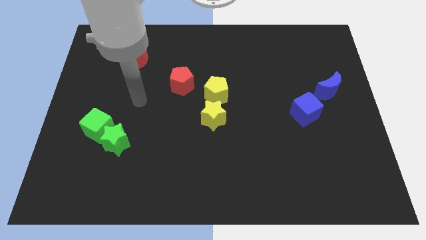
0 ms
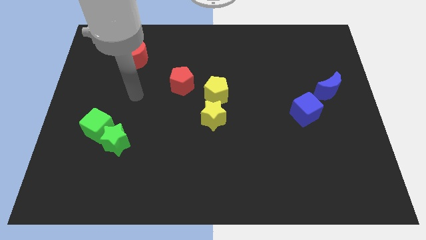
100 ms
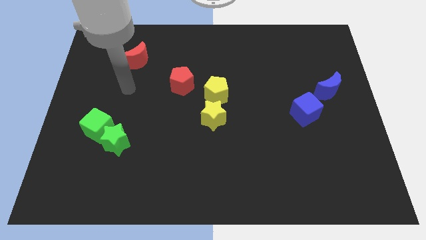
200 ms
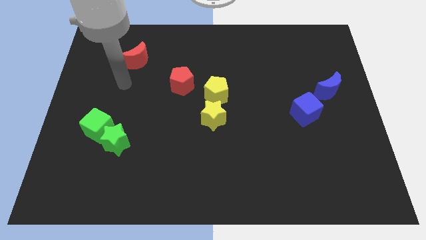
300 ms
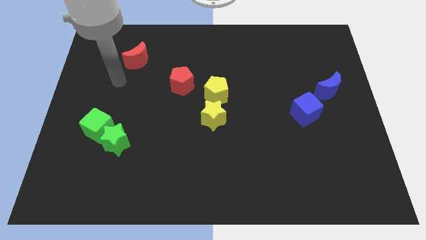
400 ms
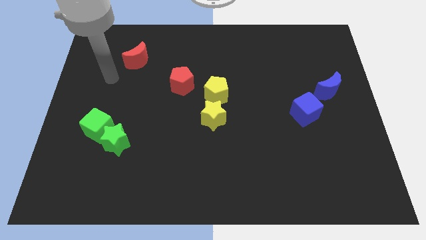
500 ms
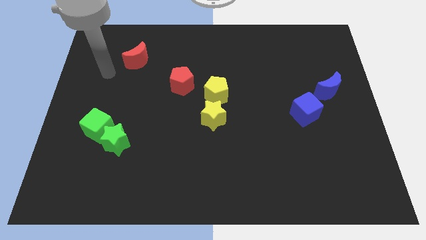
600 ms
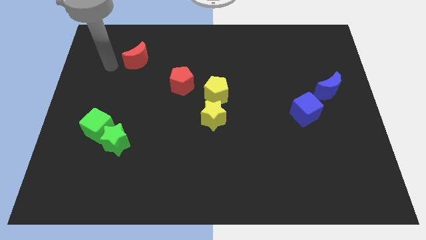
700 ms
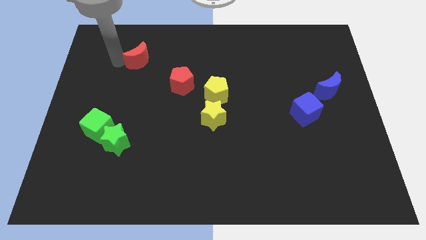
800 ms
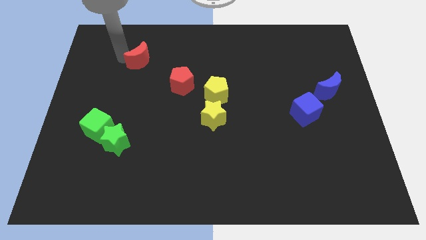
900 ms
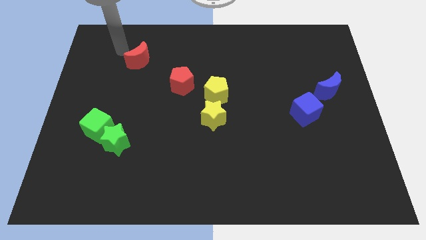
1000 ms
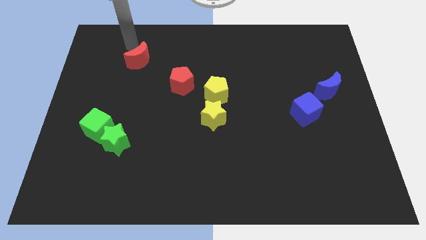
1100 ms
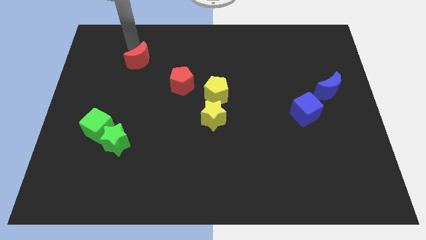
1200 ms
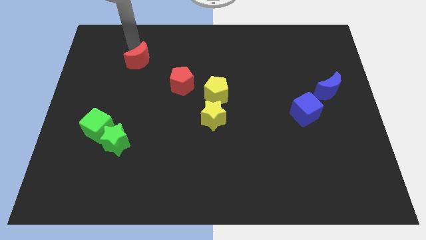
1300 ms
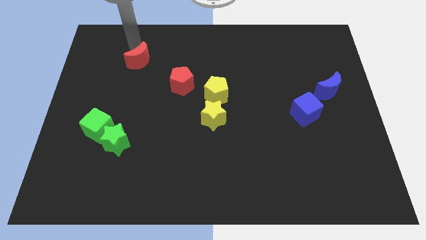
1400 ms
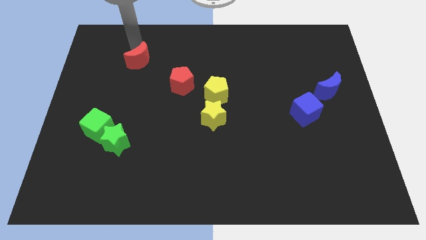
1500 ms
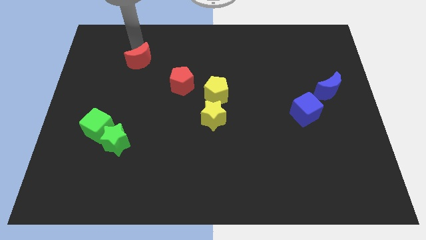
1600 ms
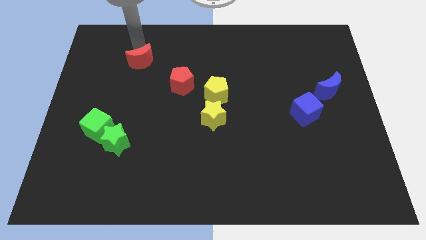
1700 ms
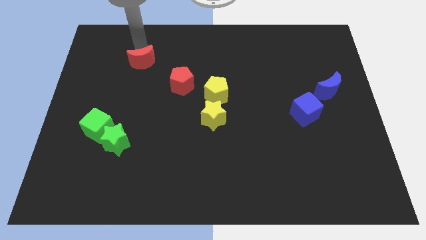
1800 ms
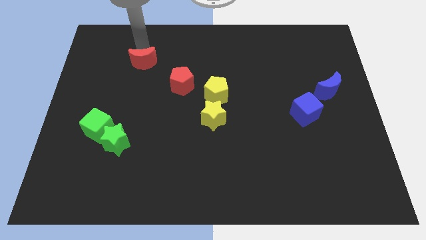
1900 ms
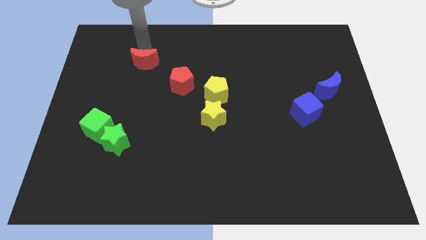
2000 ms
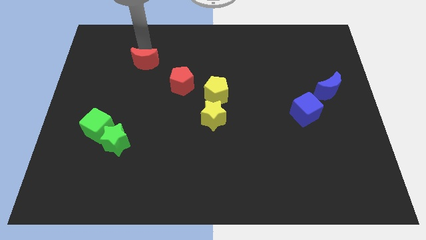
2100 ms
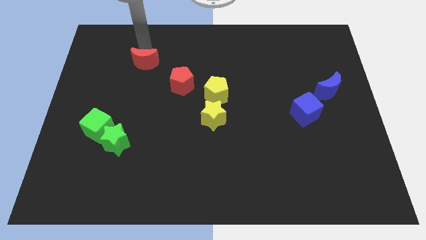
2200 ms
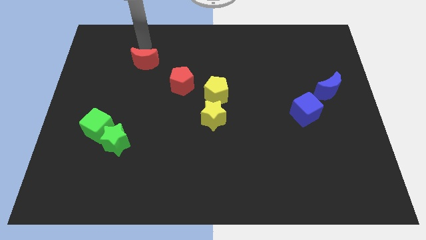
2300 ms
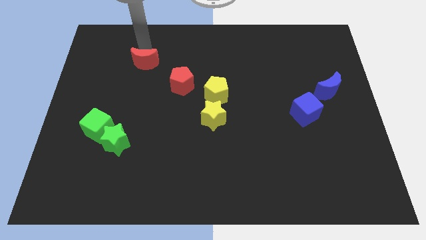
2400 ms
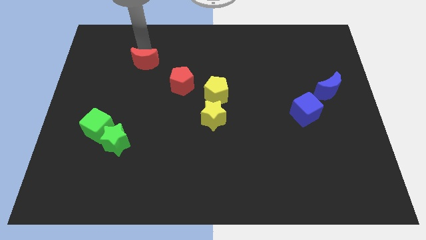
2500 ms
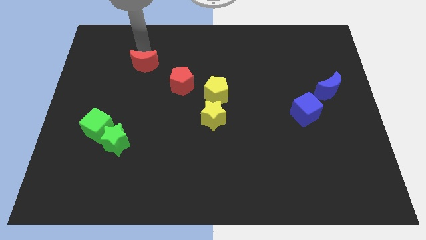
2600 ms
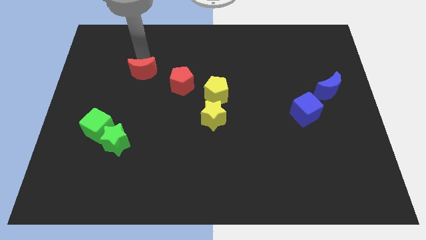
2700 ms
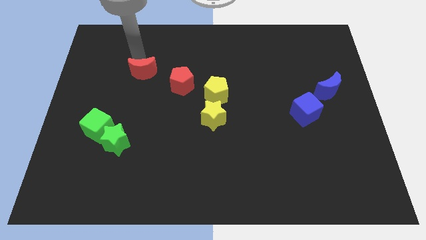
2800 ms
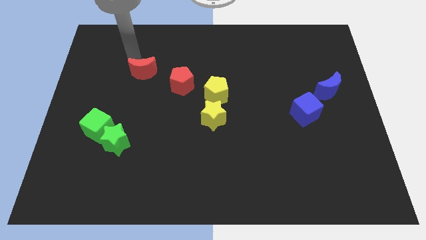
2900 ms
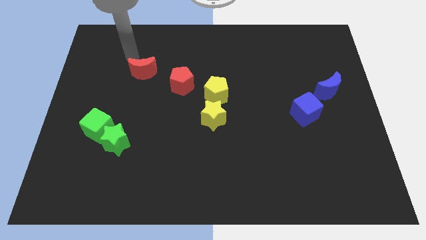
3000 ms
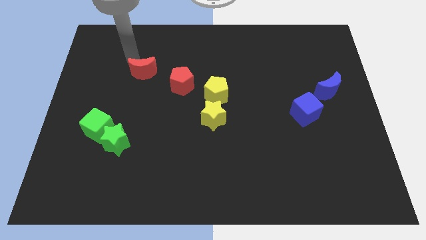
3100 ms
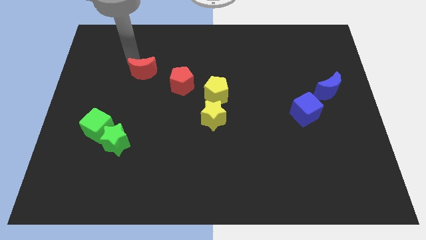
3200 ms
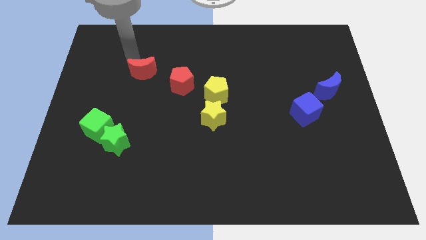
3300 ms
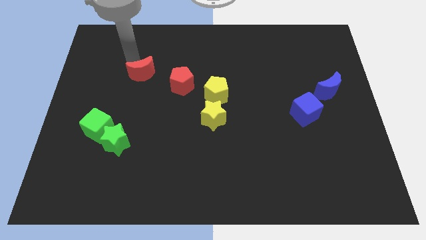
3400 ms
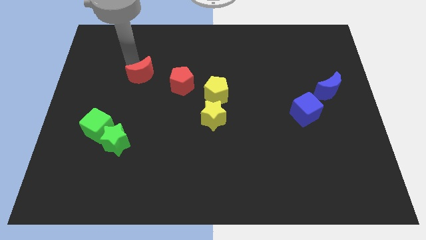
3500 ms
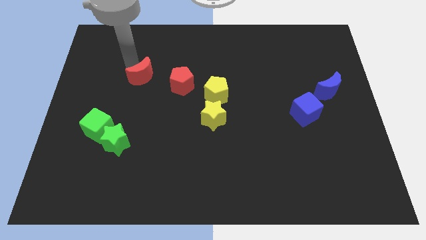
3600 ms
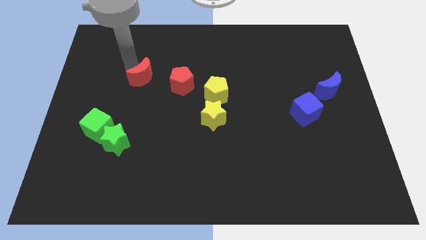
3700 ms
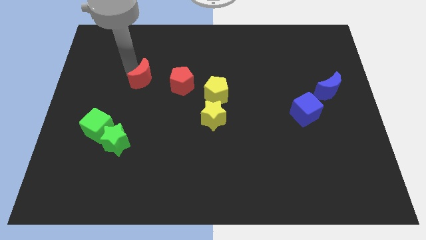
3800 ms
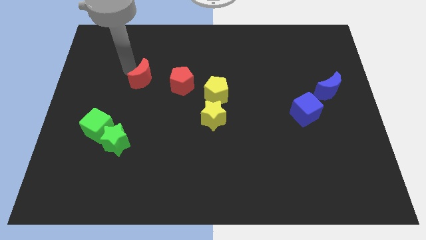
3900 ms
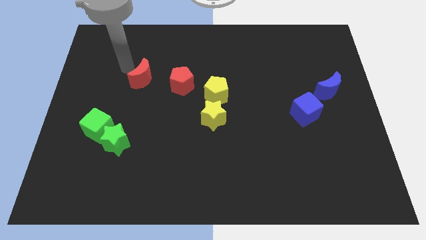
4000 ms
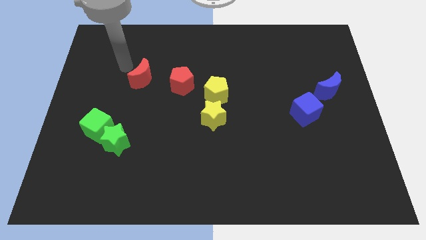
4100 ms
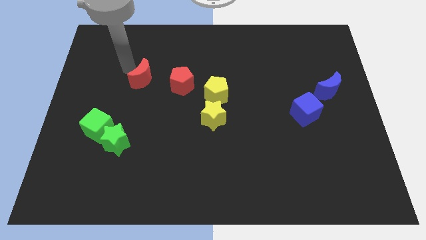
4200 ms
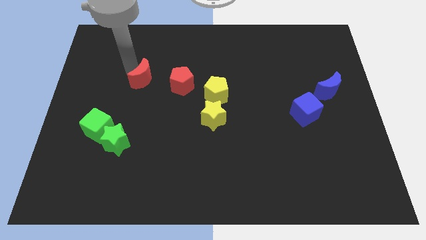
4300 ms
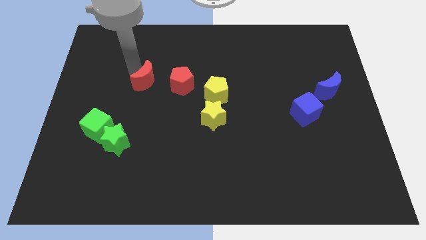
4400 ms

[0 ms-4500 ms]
slide the red moon downwards and then to the right slightly

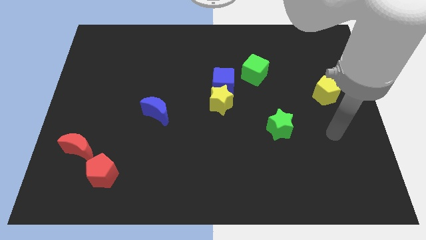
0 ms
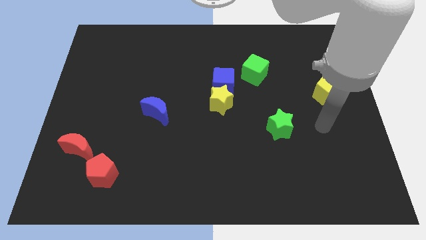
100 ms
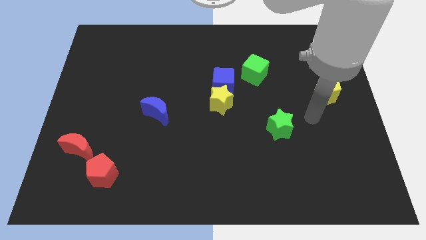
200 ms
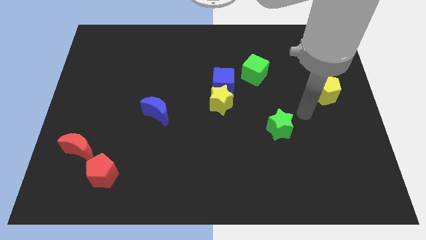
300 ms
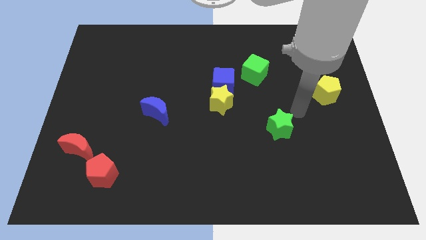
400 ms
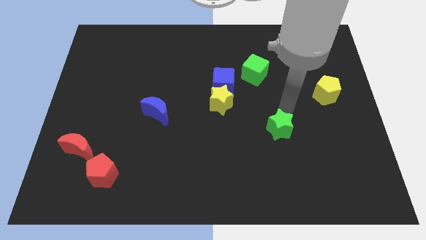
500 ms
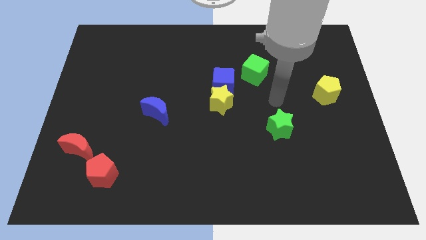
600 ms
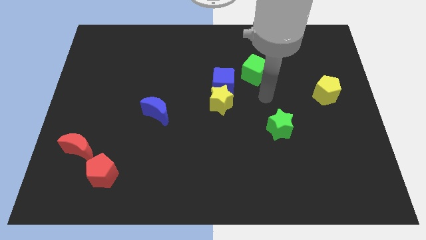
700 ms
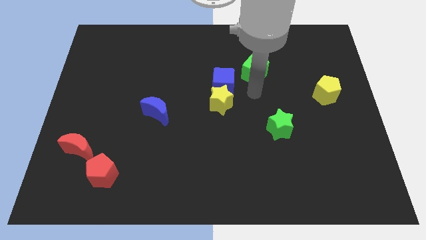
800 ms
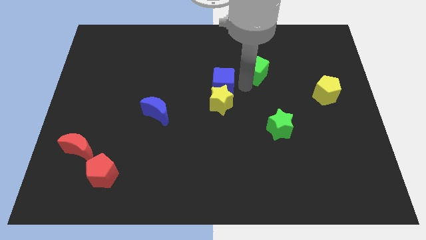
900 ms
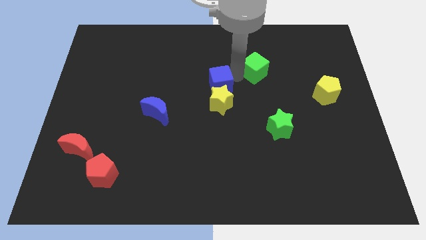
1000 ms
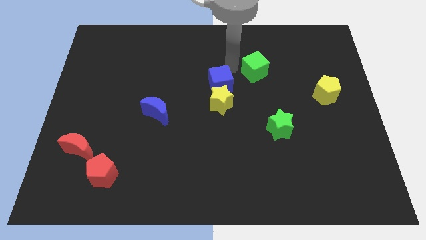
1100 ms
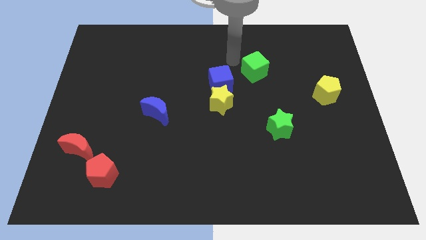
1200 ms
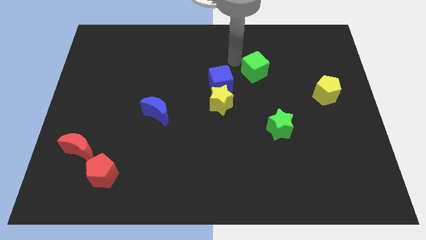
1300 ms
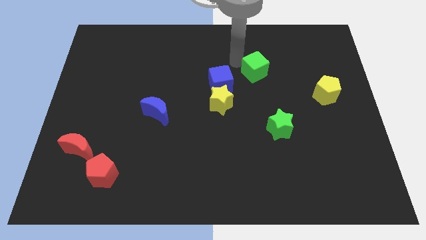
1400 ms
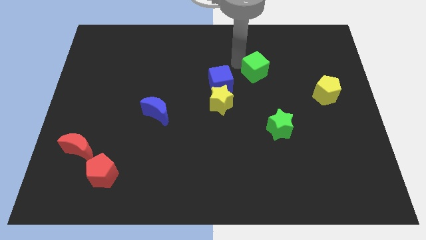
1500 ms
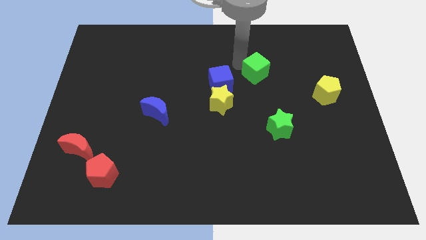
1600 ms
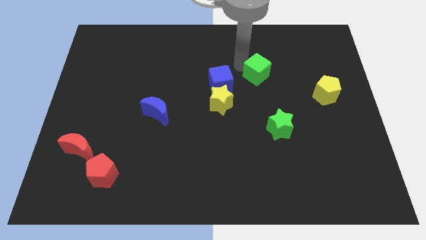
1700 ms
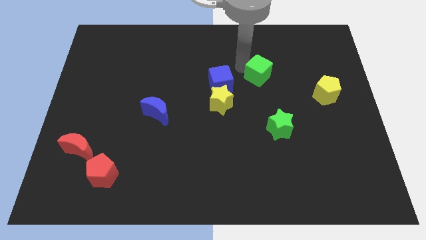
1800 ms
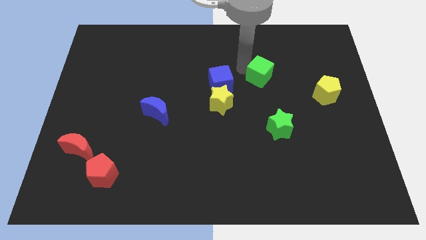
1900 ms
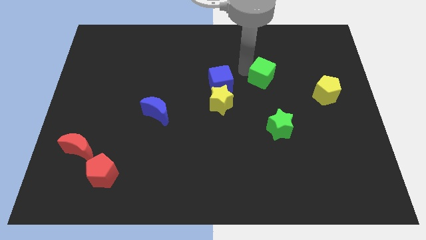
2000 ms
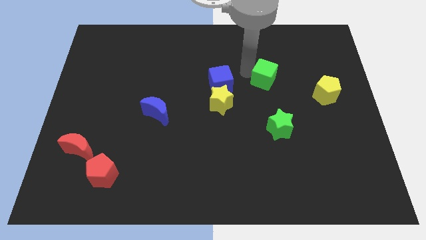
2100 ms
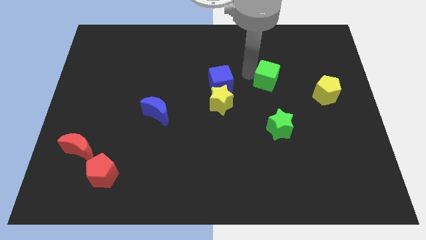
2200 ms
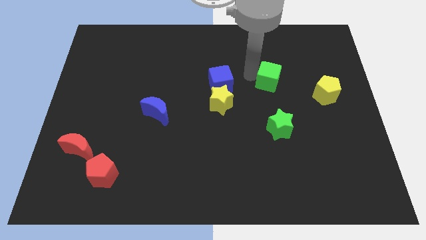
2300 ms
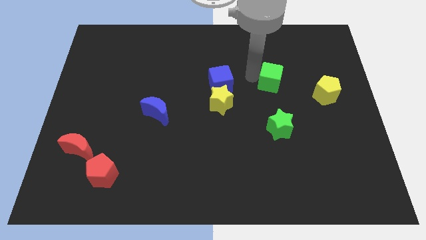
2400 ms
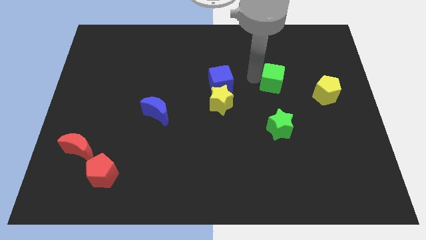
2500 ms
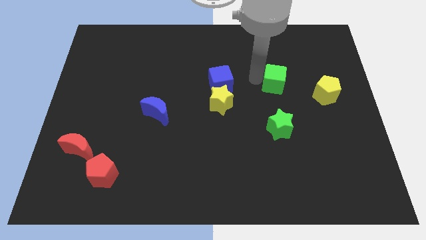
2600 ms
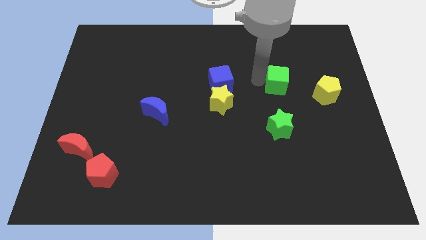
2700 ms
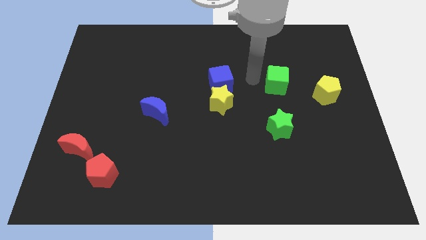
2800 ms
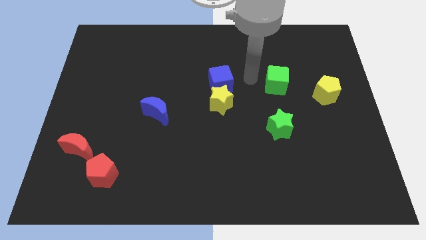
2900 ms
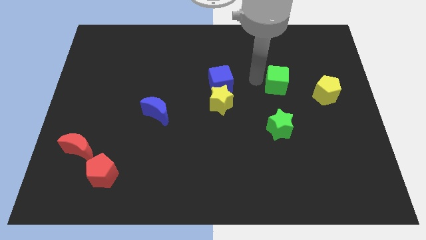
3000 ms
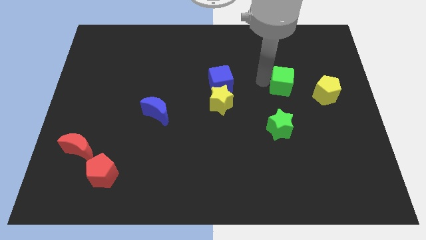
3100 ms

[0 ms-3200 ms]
slide the green cube downwards and right somewhat
